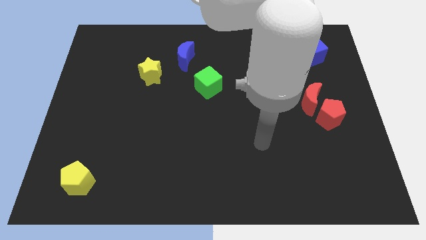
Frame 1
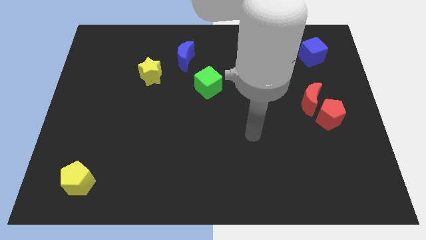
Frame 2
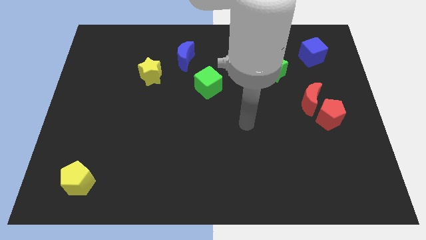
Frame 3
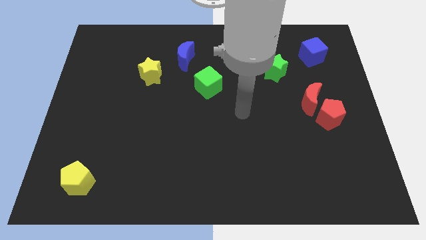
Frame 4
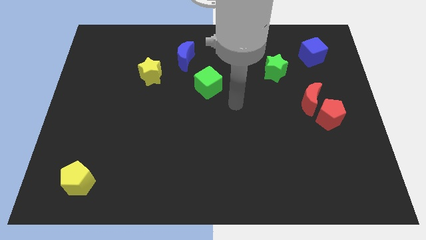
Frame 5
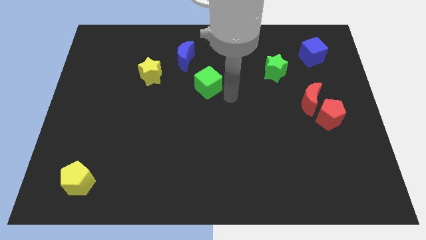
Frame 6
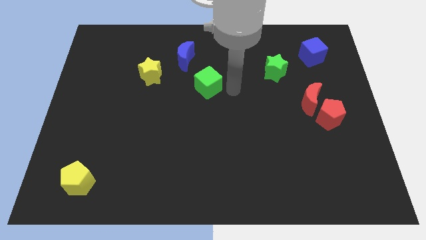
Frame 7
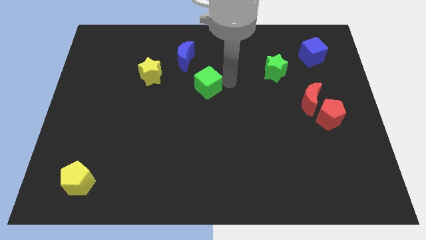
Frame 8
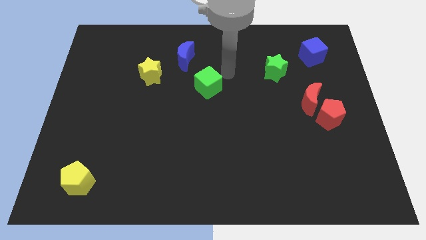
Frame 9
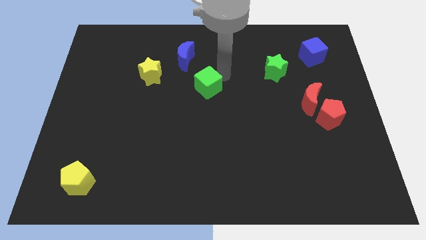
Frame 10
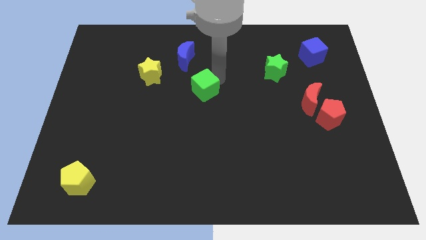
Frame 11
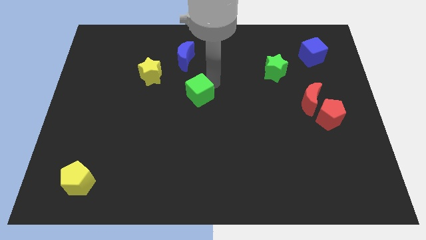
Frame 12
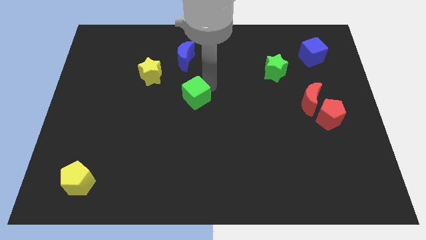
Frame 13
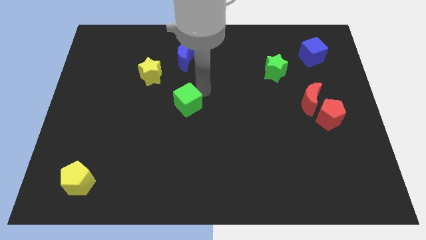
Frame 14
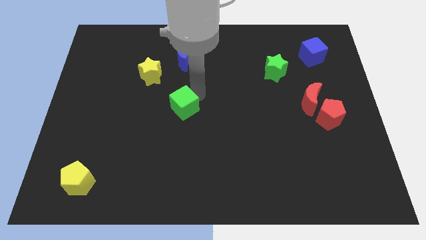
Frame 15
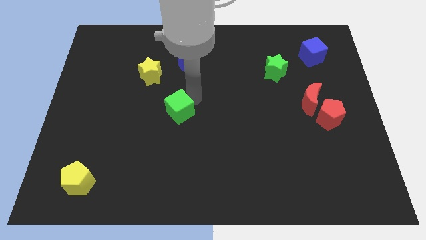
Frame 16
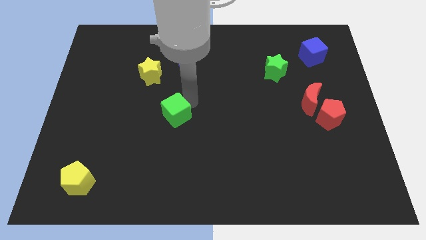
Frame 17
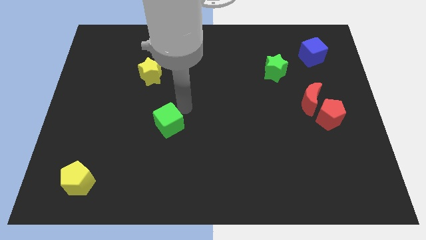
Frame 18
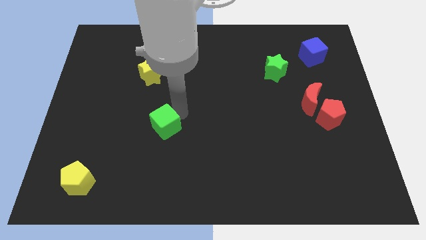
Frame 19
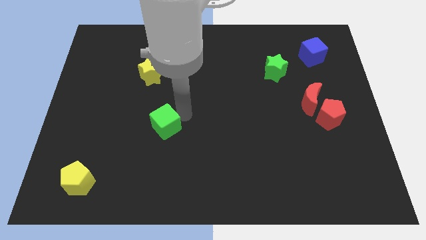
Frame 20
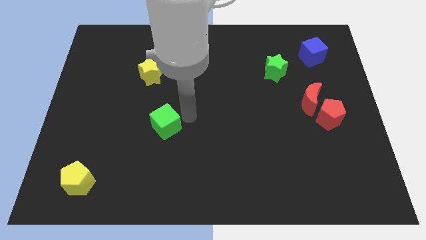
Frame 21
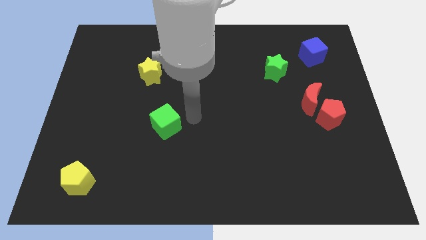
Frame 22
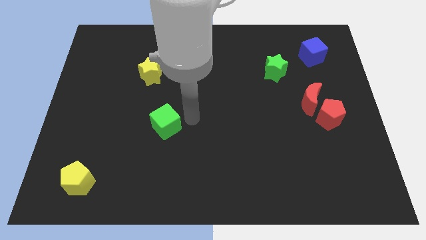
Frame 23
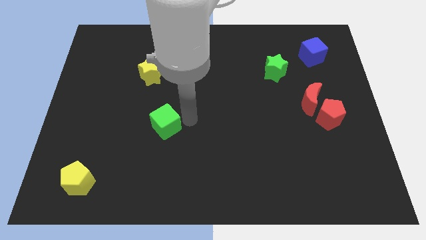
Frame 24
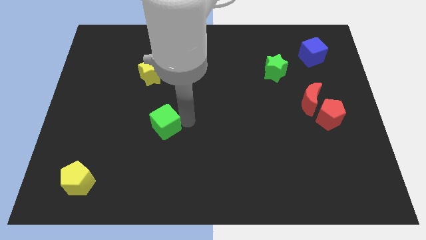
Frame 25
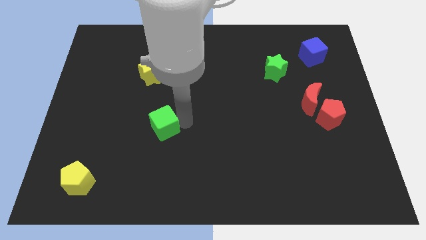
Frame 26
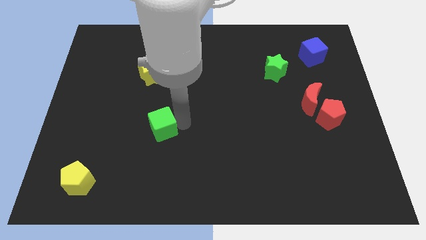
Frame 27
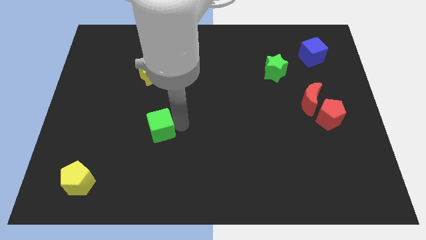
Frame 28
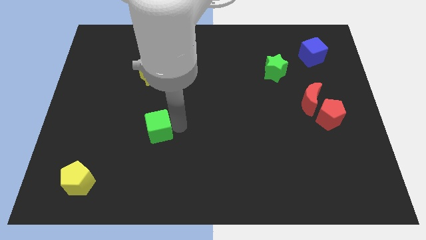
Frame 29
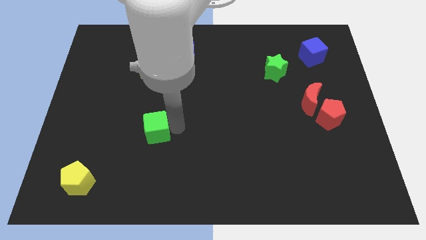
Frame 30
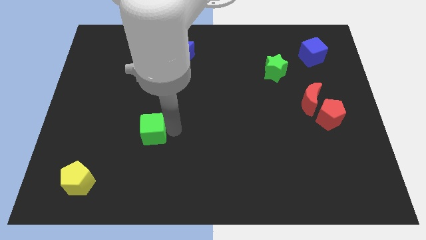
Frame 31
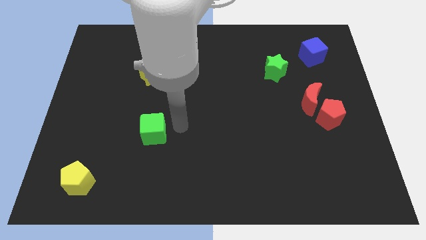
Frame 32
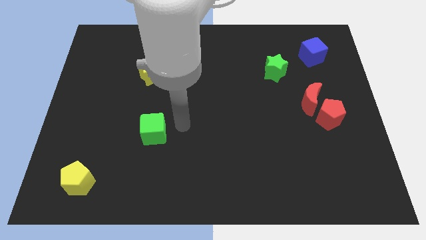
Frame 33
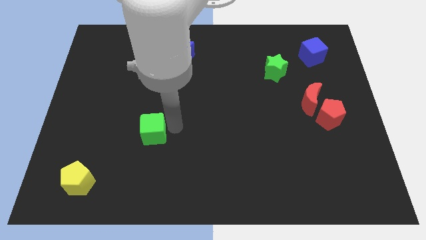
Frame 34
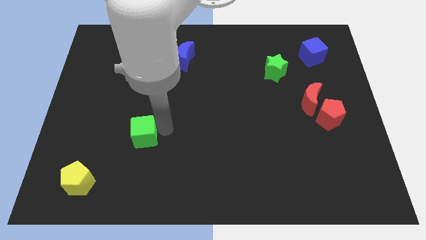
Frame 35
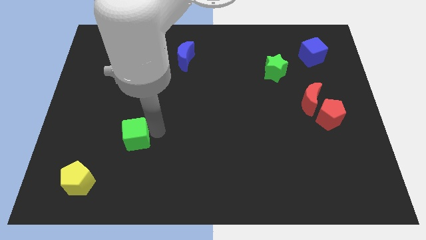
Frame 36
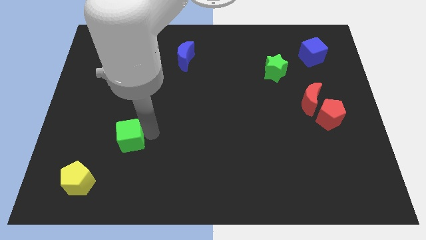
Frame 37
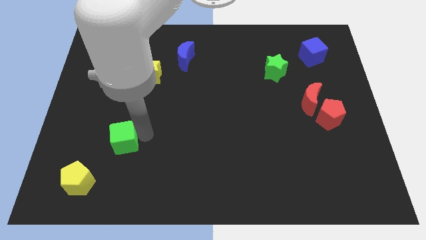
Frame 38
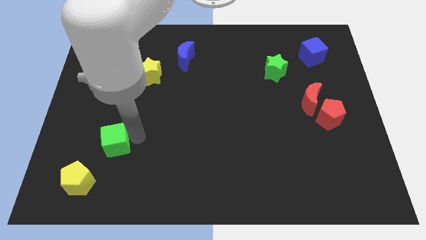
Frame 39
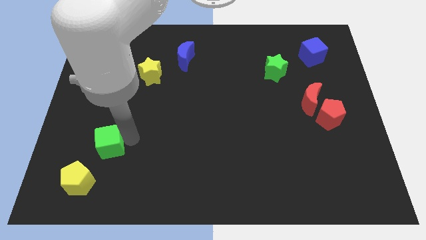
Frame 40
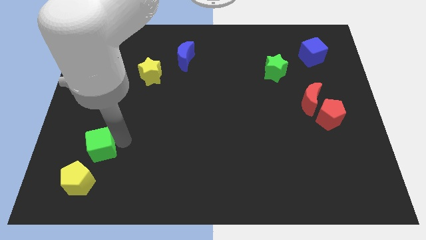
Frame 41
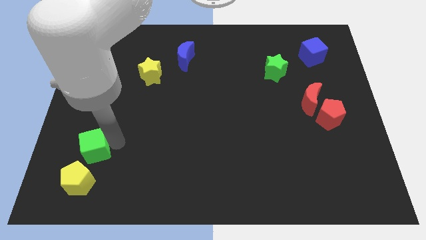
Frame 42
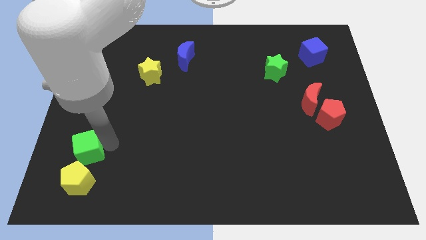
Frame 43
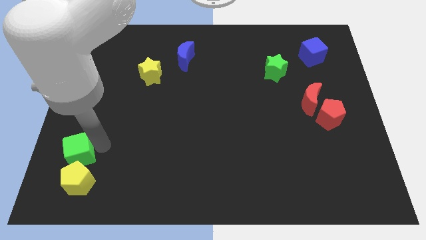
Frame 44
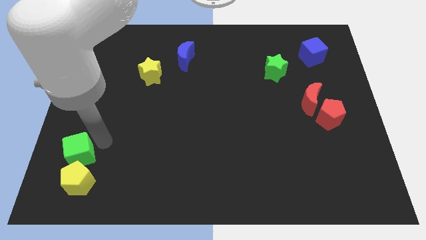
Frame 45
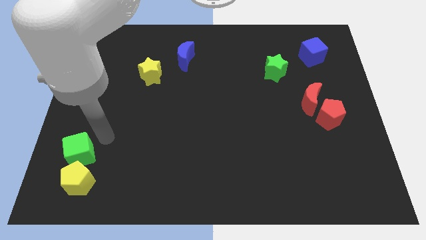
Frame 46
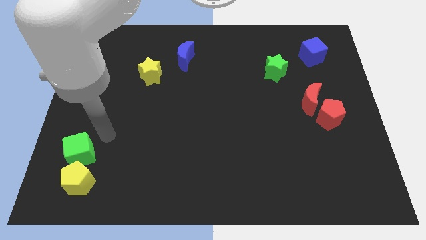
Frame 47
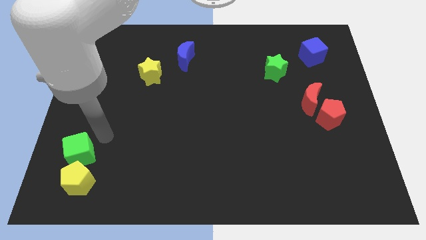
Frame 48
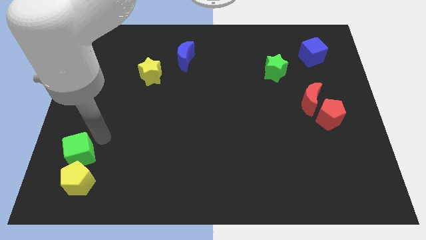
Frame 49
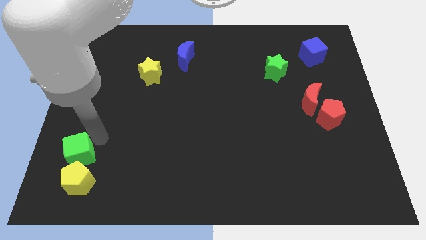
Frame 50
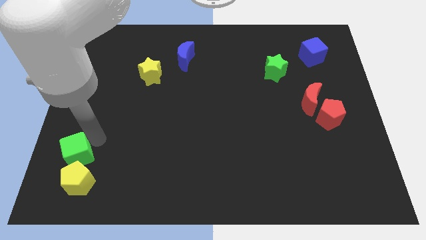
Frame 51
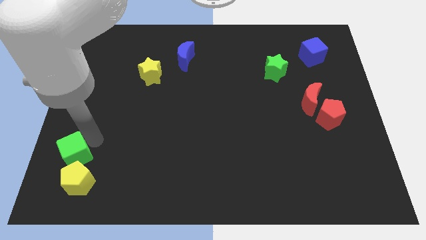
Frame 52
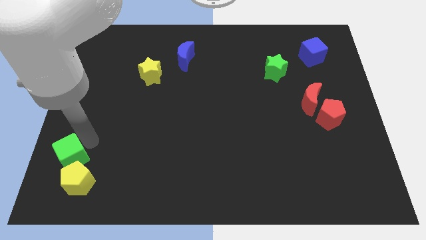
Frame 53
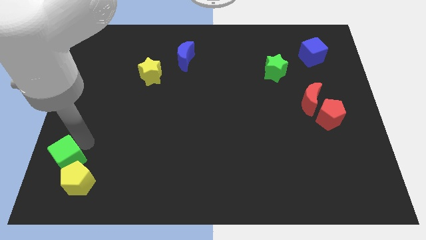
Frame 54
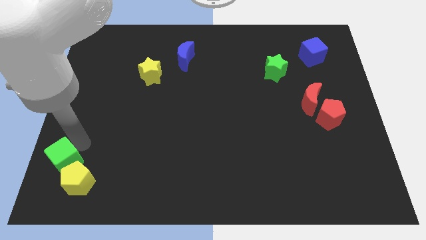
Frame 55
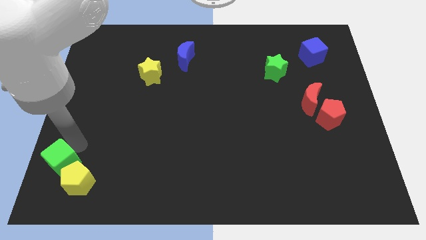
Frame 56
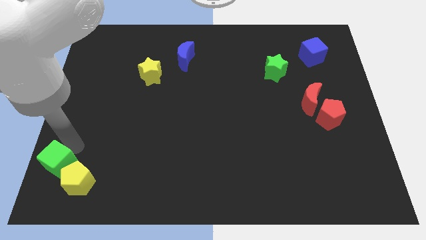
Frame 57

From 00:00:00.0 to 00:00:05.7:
move the green cube to the bottom left

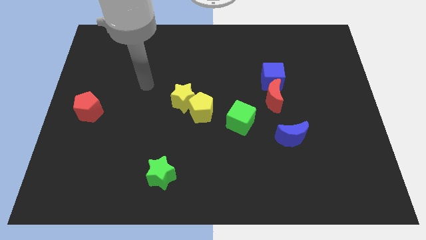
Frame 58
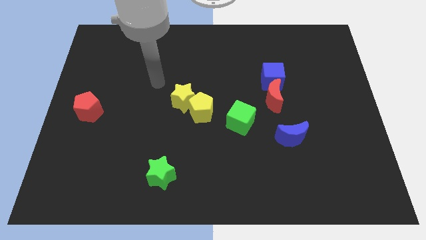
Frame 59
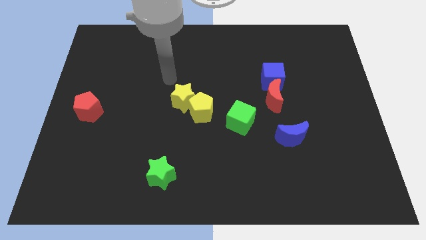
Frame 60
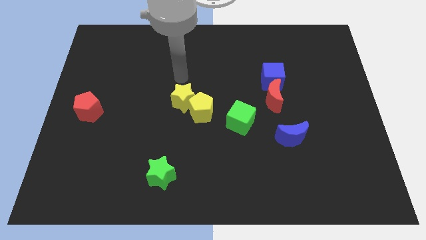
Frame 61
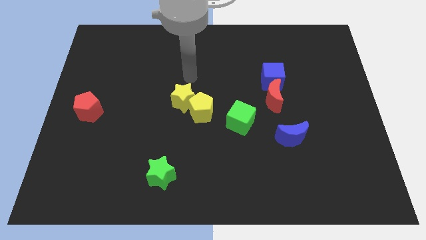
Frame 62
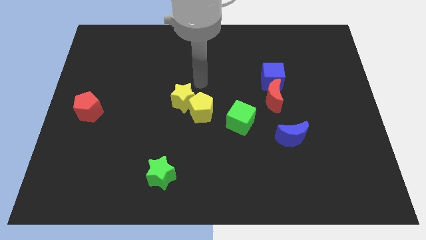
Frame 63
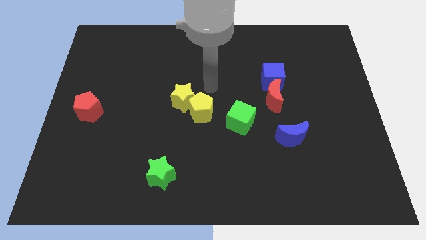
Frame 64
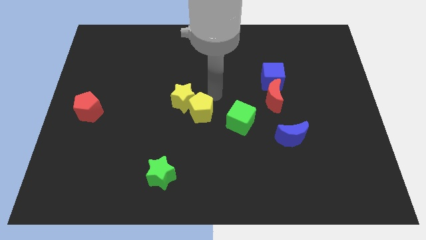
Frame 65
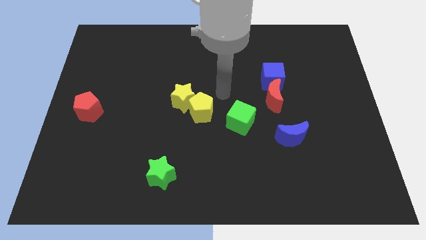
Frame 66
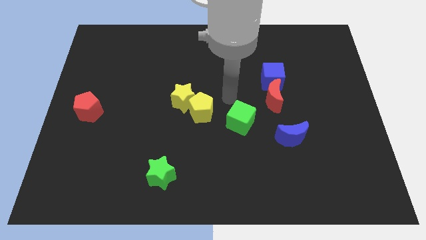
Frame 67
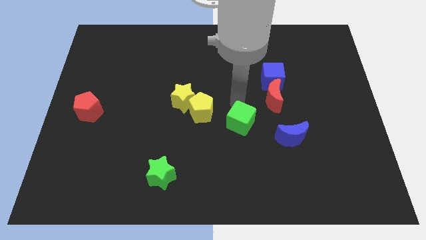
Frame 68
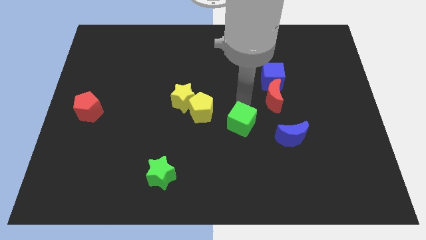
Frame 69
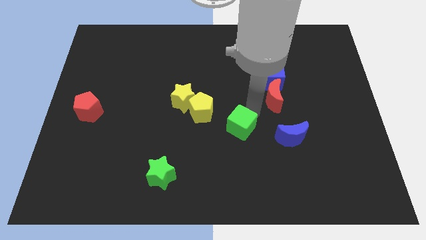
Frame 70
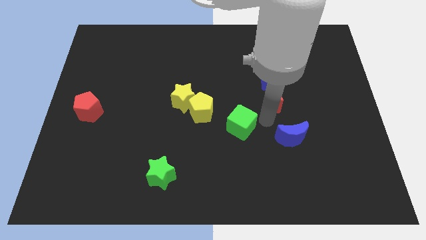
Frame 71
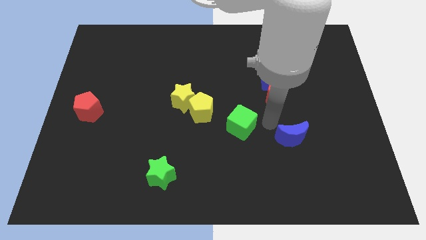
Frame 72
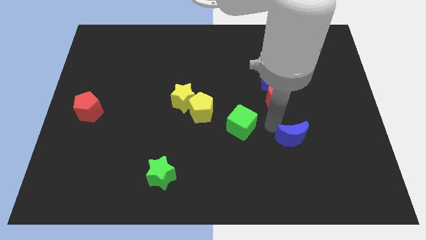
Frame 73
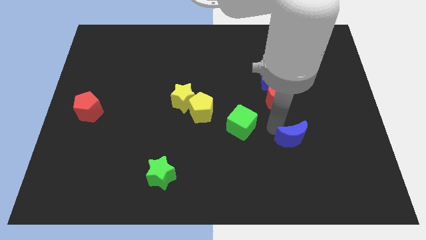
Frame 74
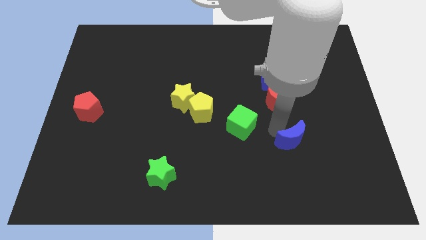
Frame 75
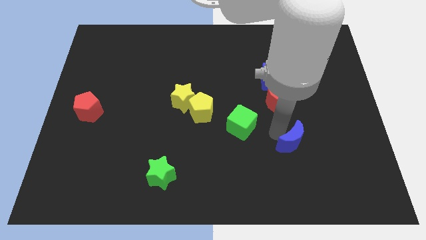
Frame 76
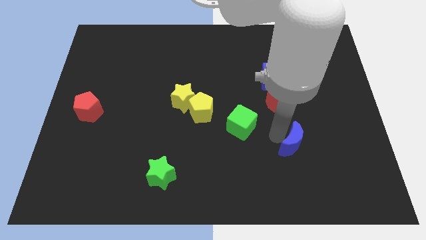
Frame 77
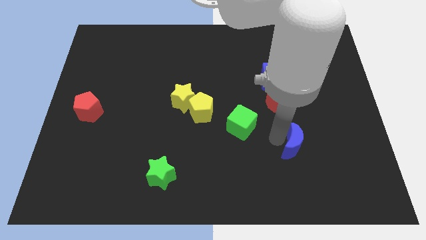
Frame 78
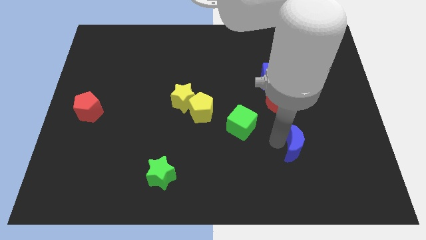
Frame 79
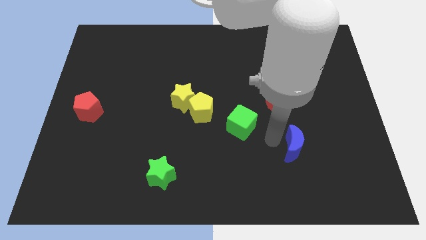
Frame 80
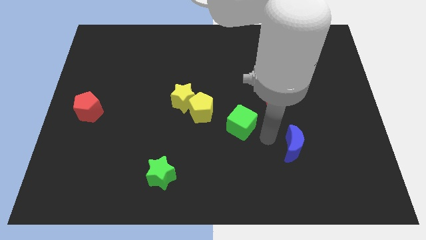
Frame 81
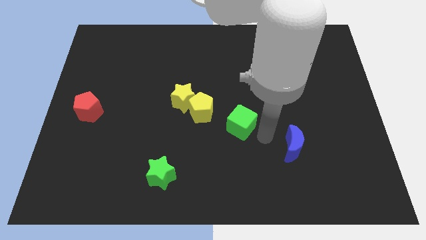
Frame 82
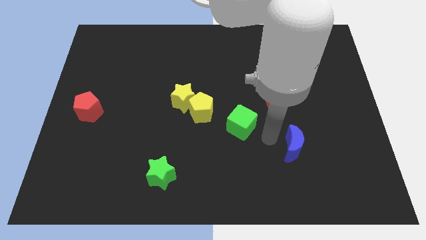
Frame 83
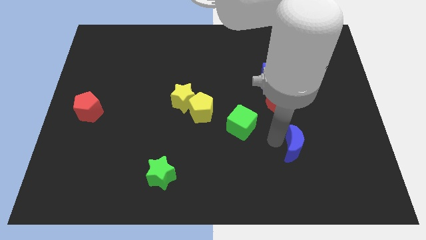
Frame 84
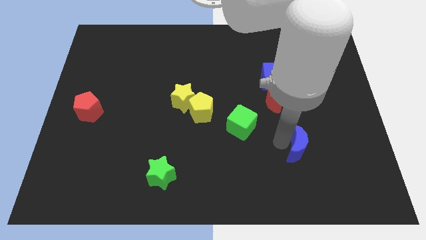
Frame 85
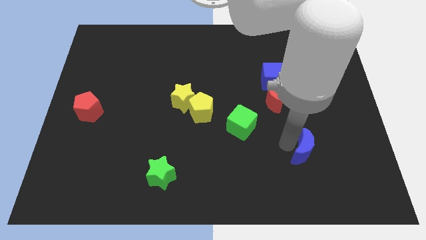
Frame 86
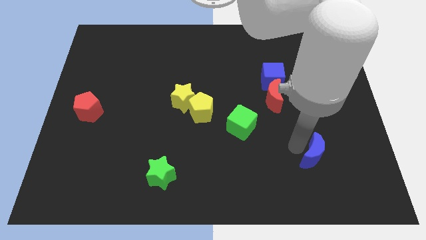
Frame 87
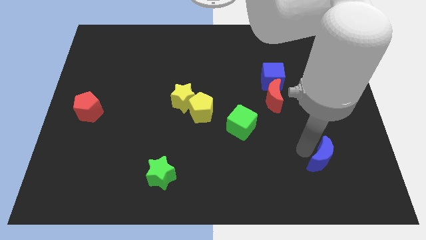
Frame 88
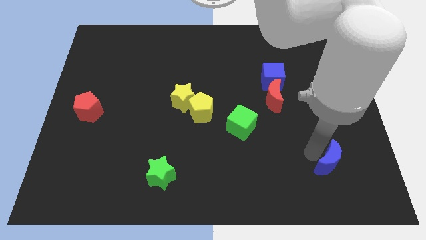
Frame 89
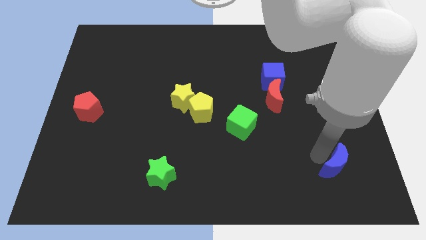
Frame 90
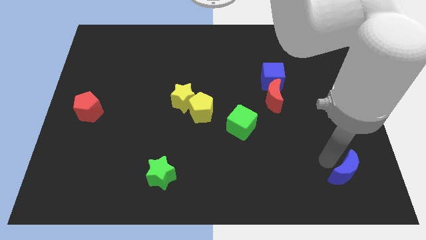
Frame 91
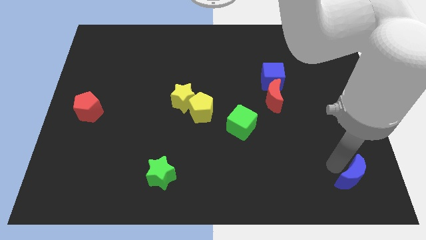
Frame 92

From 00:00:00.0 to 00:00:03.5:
move the blue moon to the bottom right
